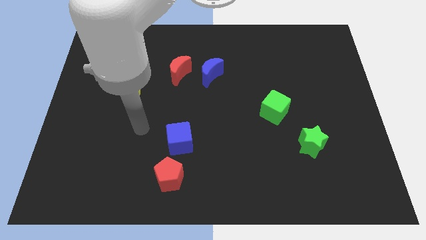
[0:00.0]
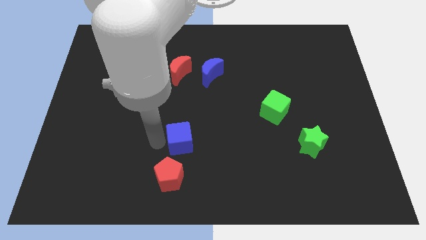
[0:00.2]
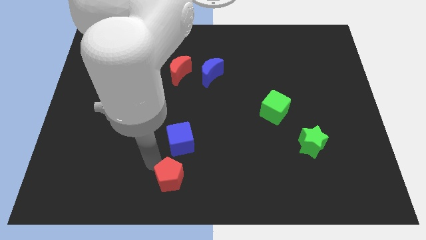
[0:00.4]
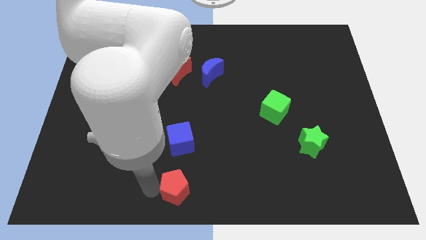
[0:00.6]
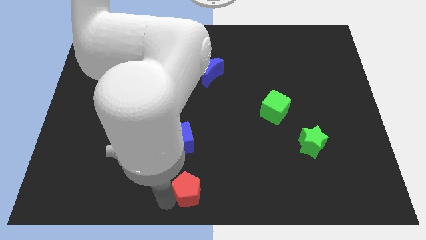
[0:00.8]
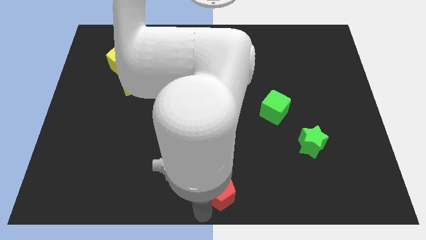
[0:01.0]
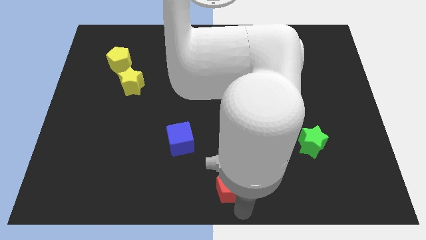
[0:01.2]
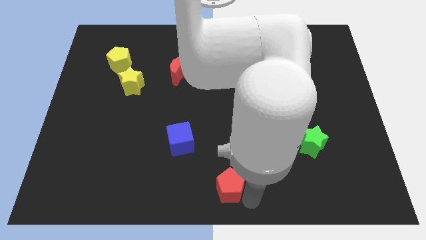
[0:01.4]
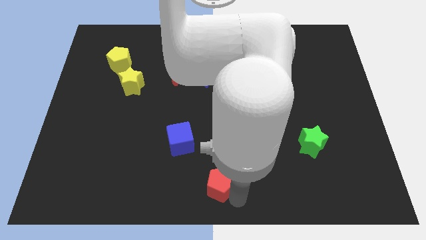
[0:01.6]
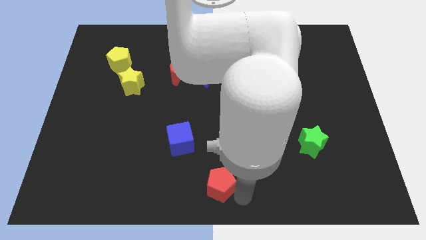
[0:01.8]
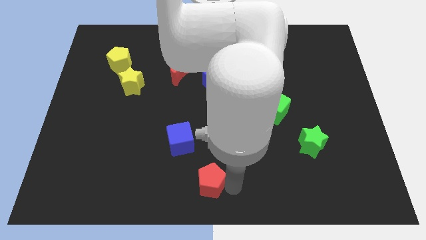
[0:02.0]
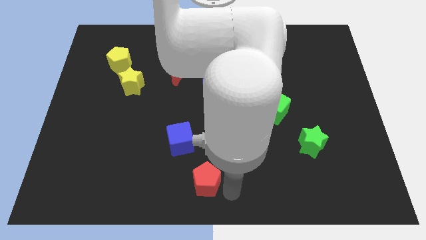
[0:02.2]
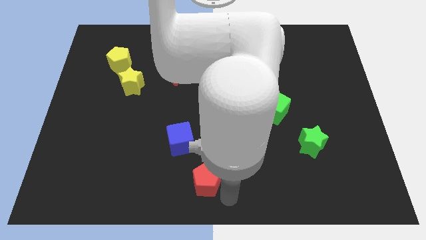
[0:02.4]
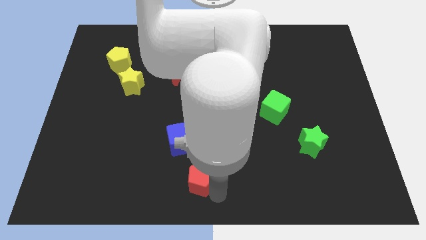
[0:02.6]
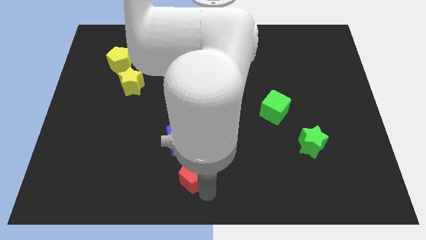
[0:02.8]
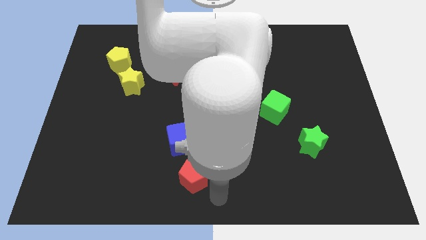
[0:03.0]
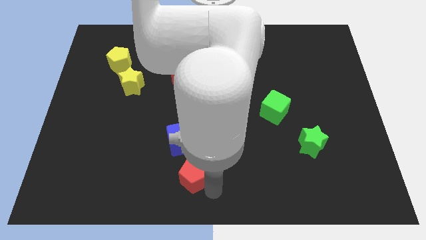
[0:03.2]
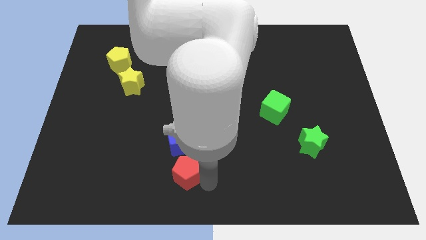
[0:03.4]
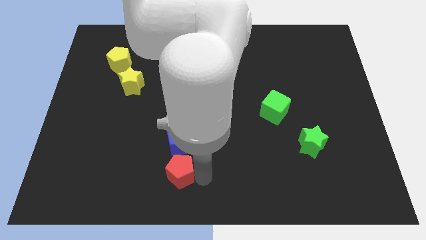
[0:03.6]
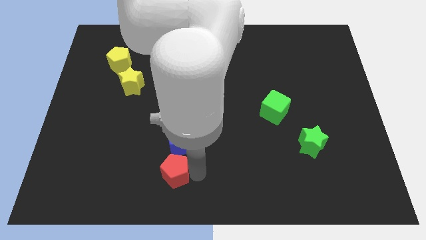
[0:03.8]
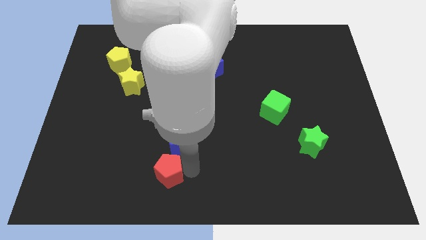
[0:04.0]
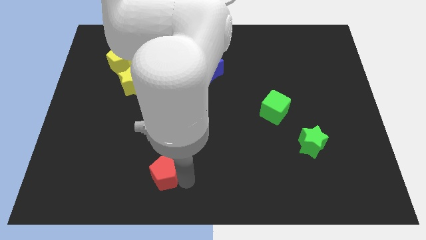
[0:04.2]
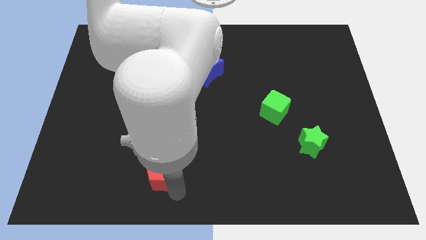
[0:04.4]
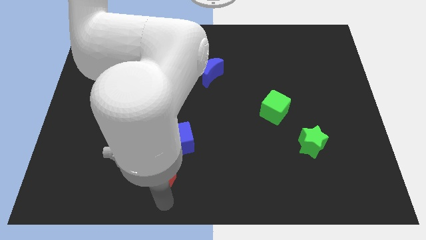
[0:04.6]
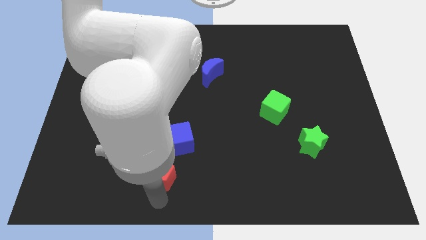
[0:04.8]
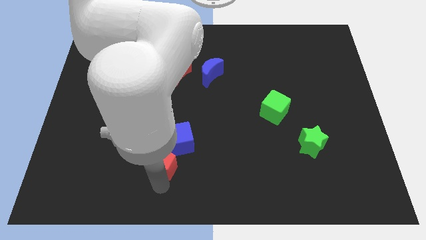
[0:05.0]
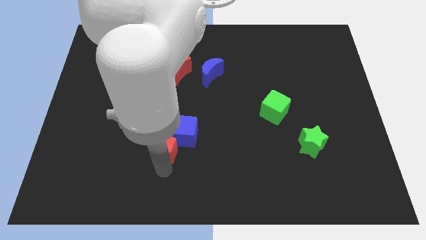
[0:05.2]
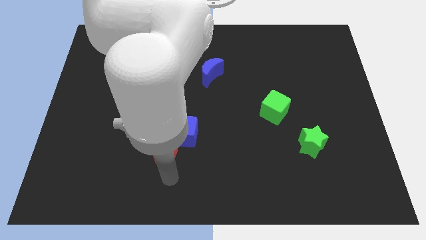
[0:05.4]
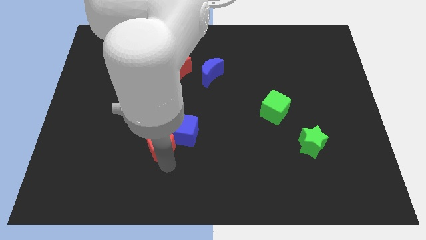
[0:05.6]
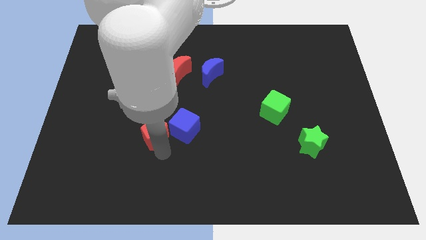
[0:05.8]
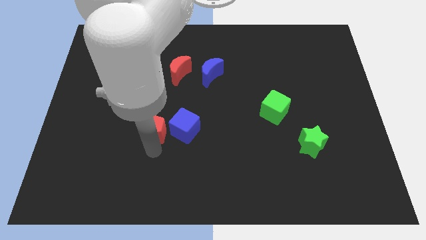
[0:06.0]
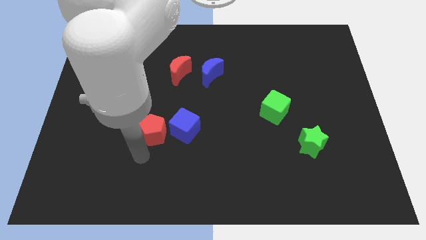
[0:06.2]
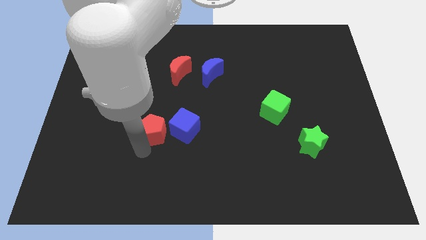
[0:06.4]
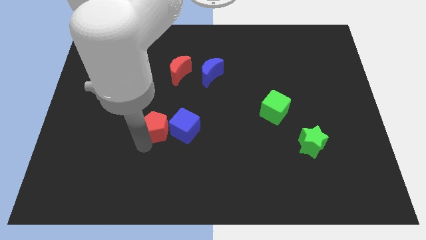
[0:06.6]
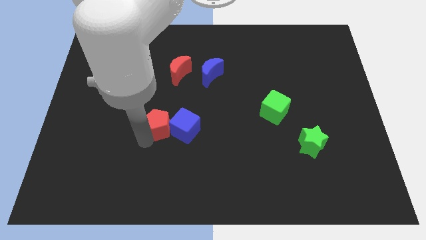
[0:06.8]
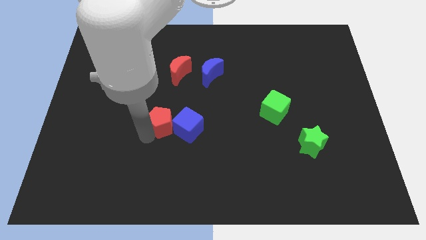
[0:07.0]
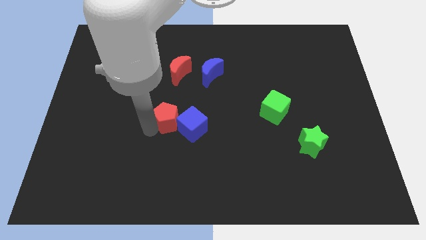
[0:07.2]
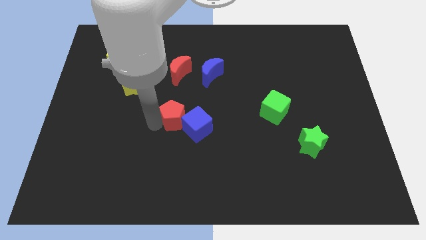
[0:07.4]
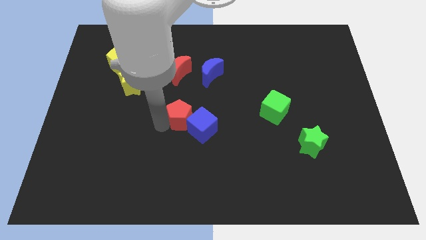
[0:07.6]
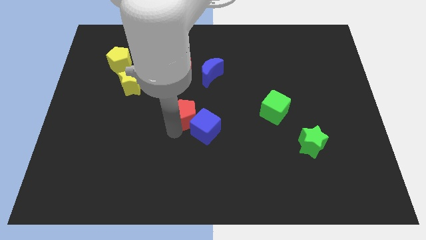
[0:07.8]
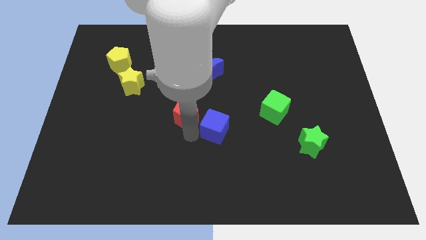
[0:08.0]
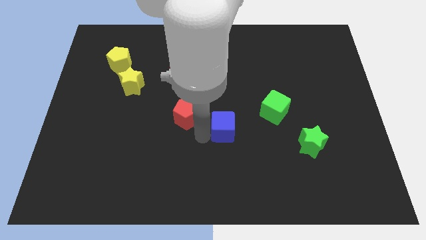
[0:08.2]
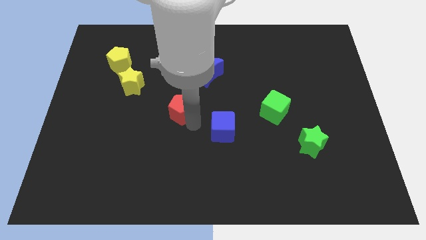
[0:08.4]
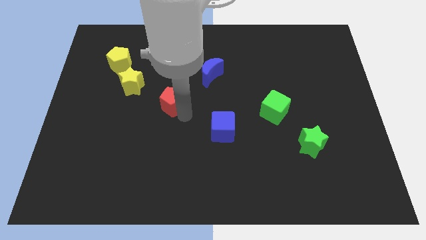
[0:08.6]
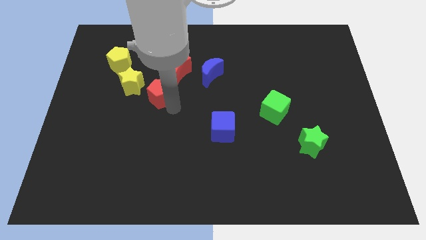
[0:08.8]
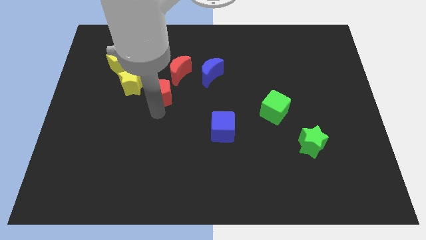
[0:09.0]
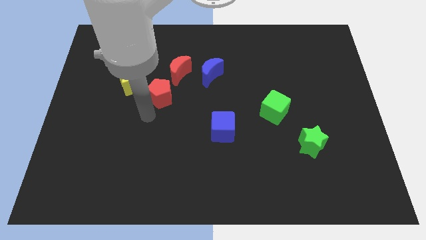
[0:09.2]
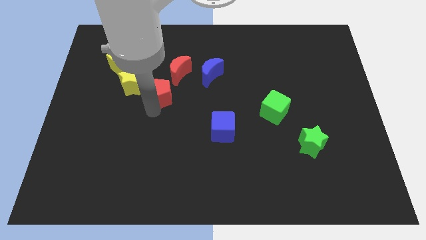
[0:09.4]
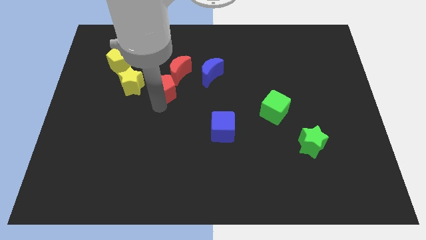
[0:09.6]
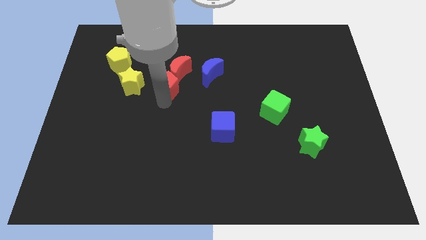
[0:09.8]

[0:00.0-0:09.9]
push the red pentagon close to the red moon

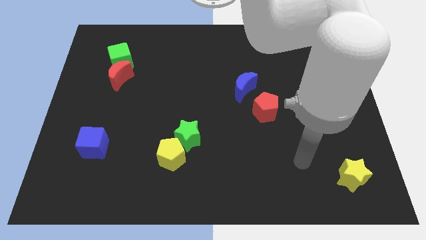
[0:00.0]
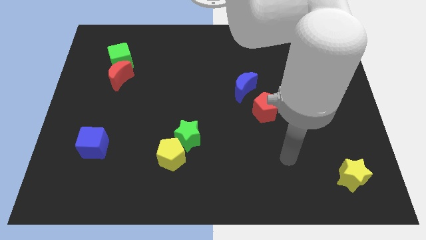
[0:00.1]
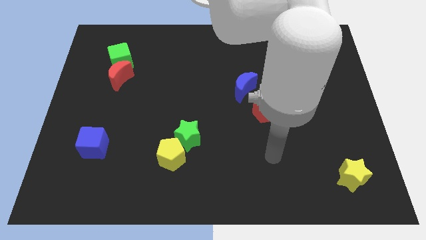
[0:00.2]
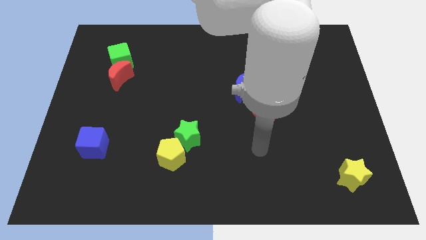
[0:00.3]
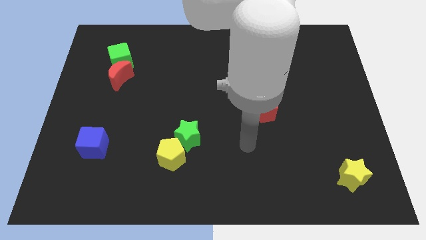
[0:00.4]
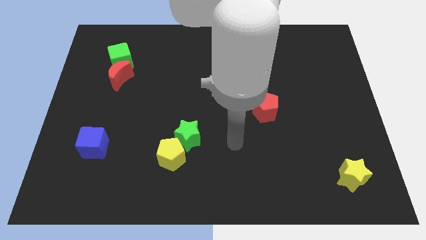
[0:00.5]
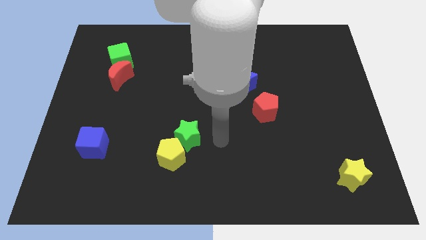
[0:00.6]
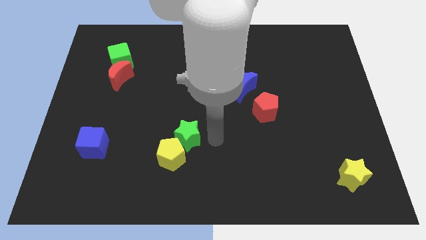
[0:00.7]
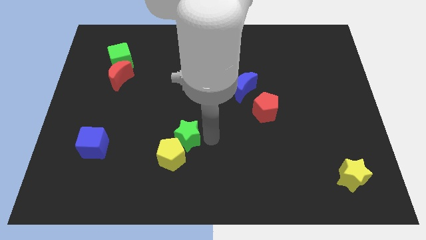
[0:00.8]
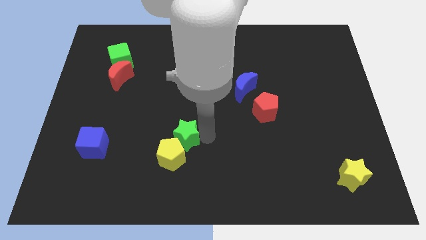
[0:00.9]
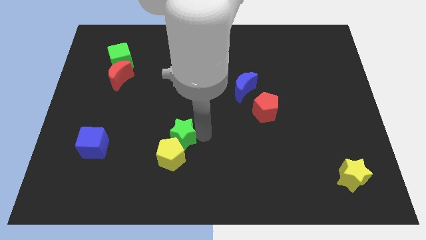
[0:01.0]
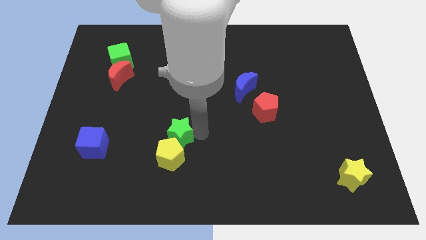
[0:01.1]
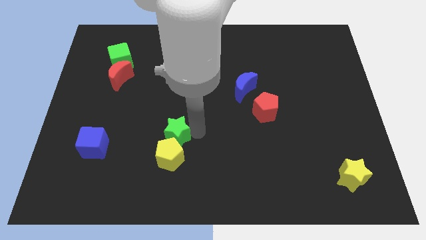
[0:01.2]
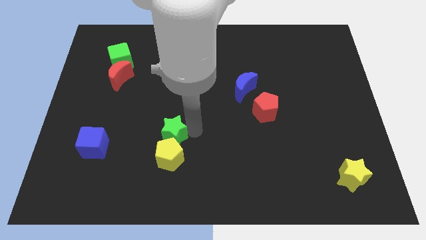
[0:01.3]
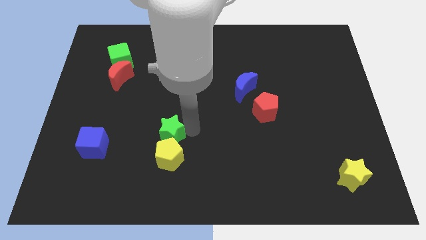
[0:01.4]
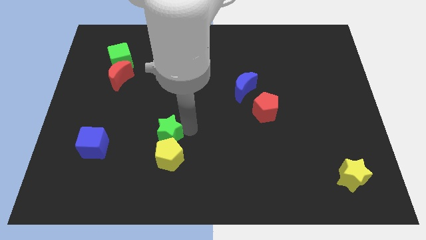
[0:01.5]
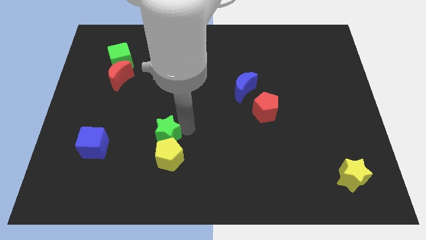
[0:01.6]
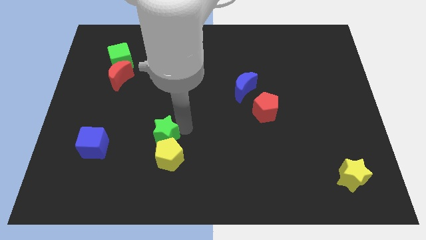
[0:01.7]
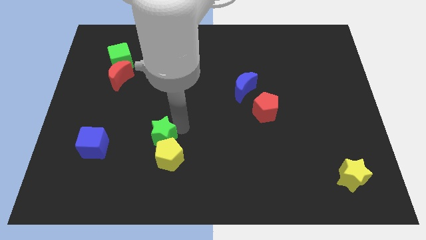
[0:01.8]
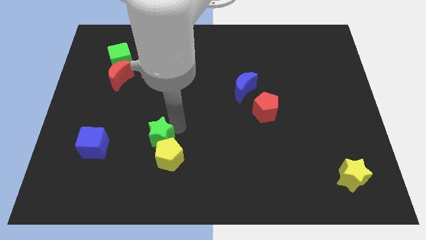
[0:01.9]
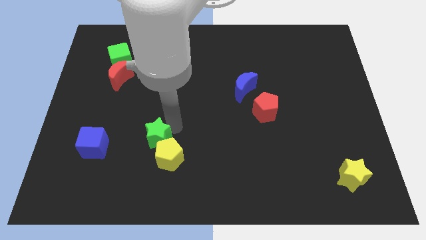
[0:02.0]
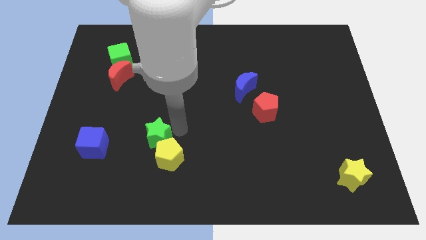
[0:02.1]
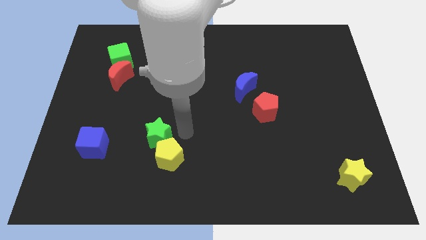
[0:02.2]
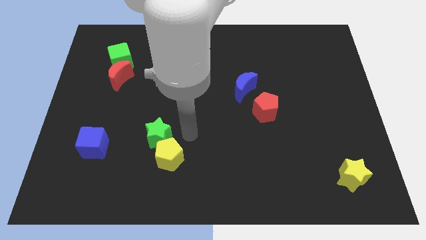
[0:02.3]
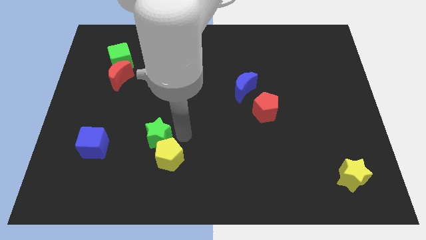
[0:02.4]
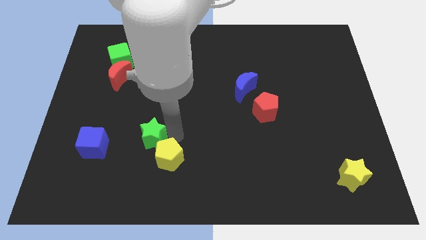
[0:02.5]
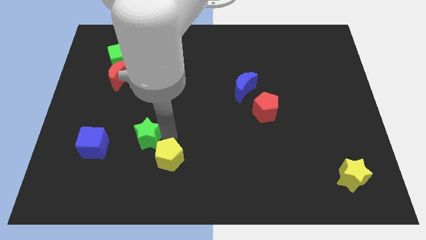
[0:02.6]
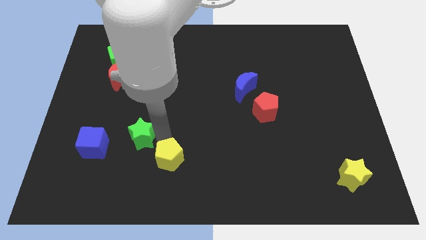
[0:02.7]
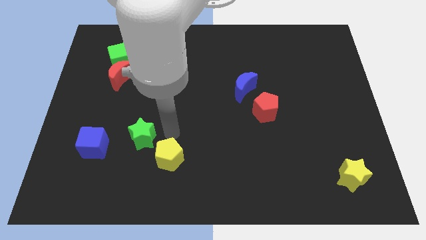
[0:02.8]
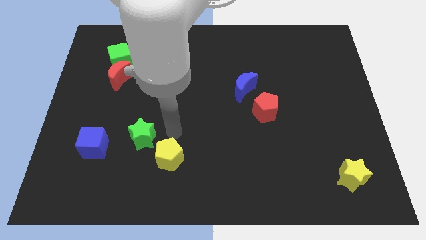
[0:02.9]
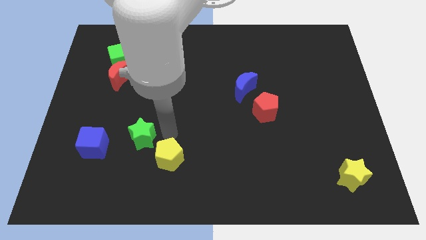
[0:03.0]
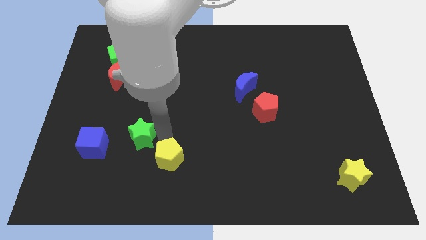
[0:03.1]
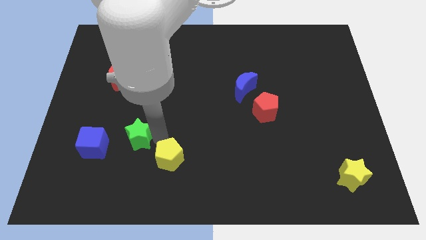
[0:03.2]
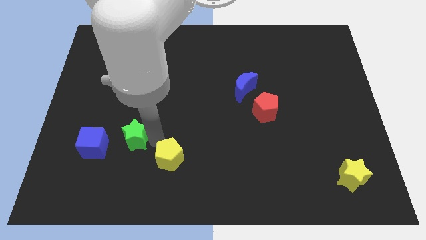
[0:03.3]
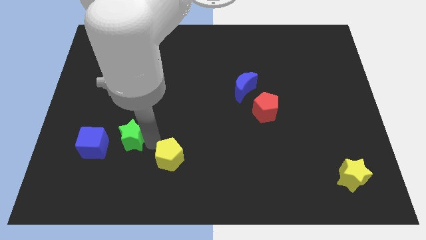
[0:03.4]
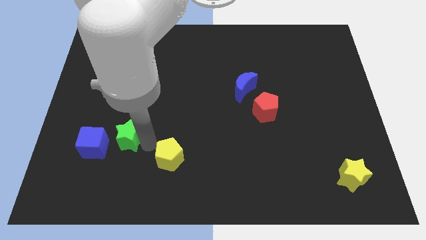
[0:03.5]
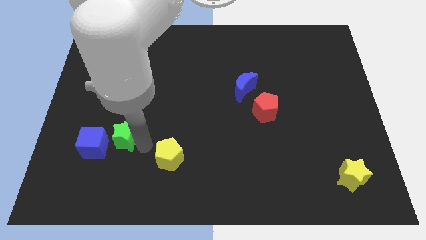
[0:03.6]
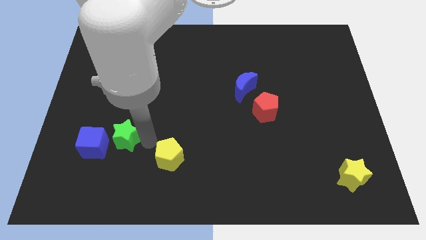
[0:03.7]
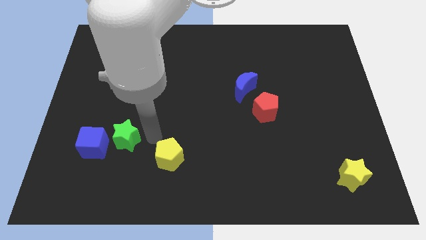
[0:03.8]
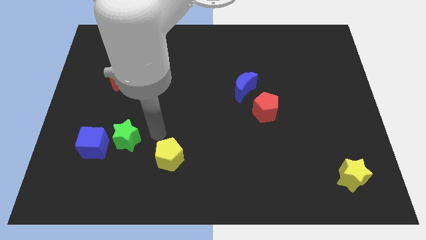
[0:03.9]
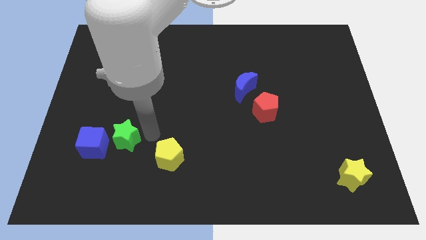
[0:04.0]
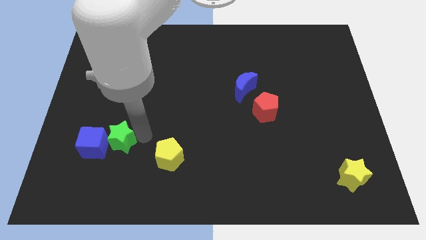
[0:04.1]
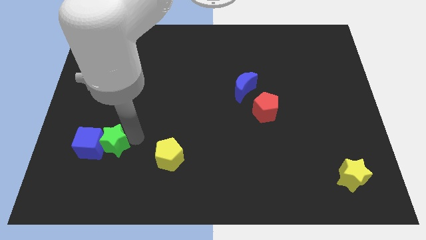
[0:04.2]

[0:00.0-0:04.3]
push the green star to the blue cube
